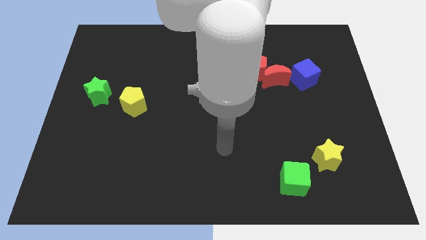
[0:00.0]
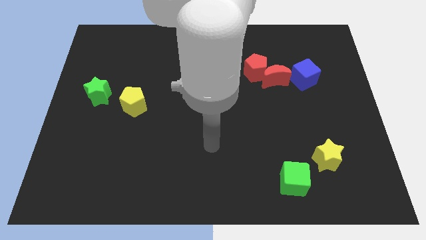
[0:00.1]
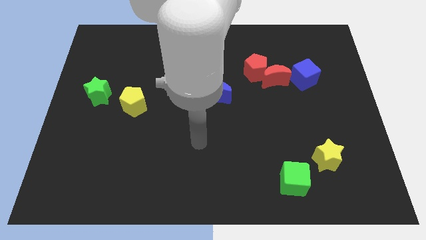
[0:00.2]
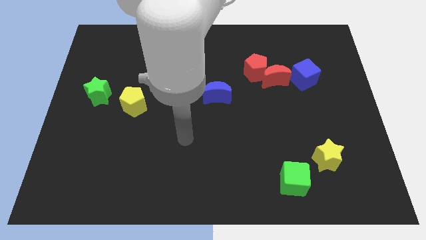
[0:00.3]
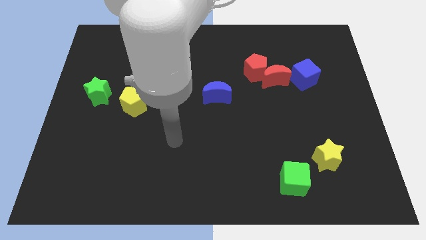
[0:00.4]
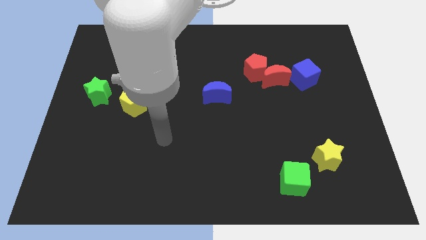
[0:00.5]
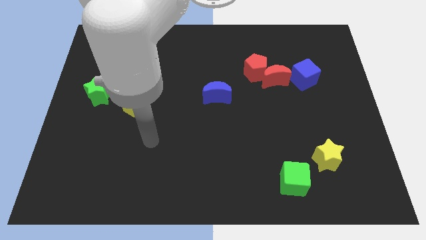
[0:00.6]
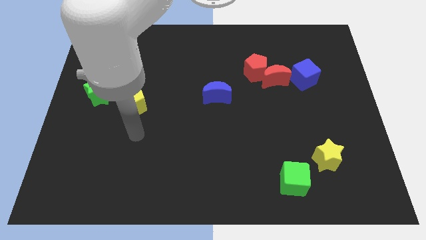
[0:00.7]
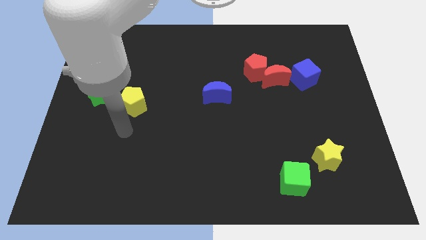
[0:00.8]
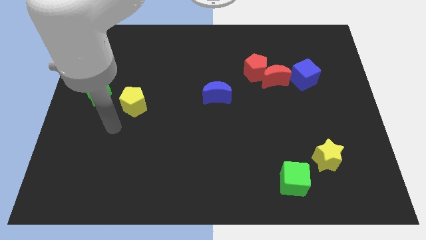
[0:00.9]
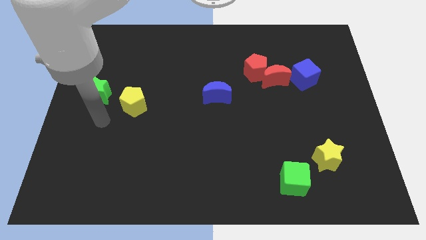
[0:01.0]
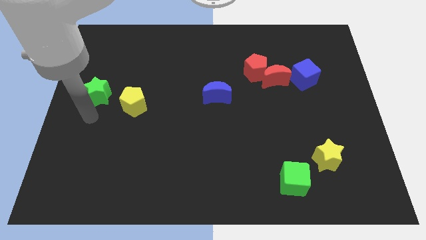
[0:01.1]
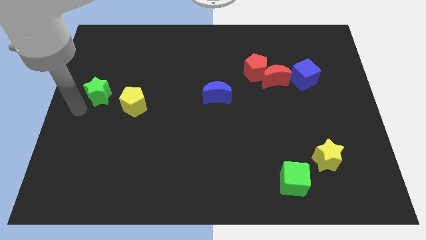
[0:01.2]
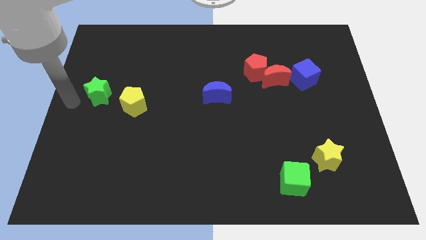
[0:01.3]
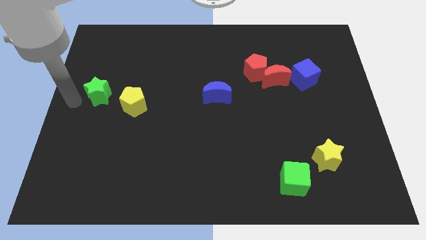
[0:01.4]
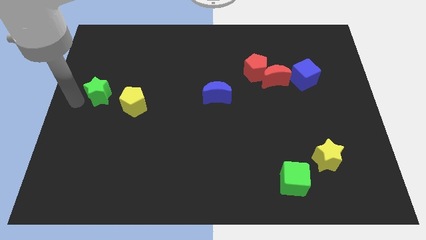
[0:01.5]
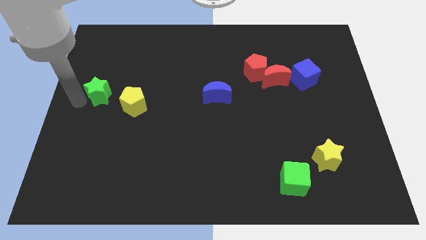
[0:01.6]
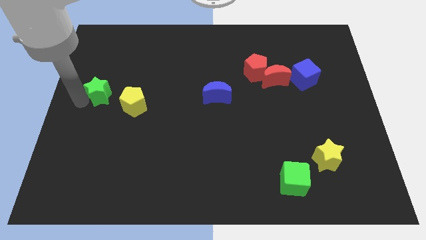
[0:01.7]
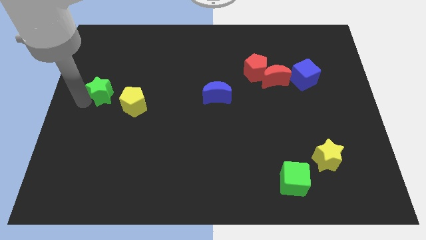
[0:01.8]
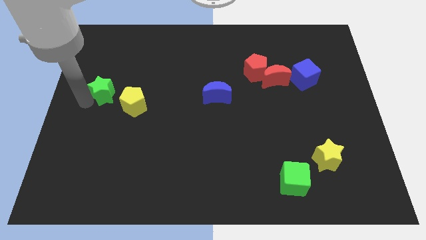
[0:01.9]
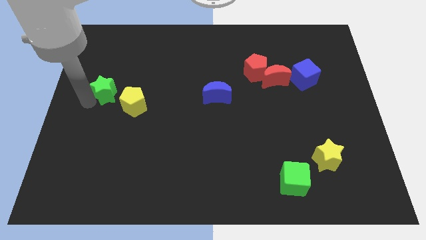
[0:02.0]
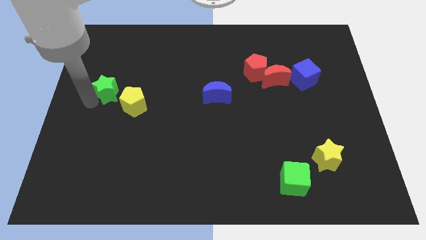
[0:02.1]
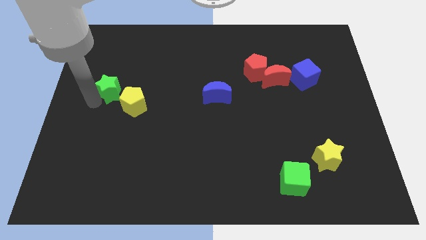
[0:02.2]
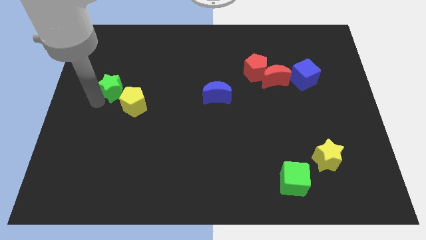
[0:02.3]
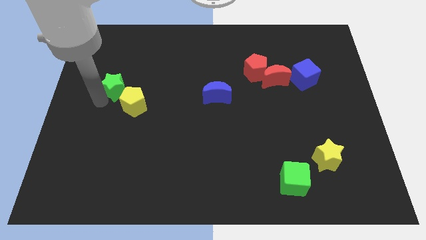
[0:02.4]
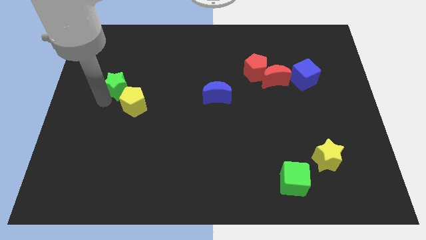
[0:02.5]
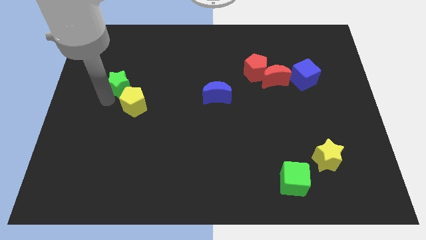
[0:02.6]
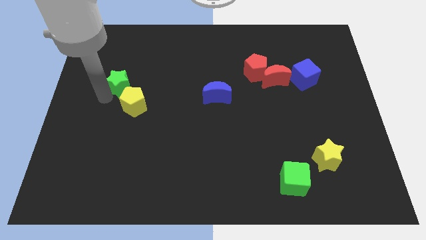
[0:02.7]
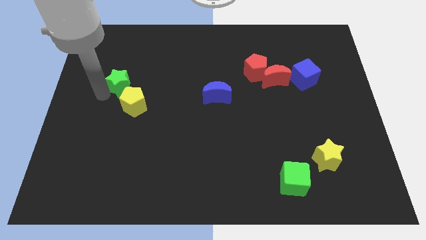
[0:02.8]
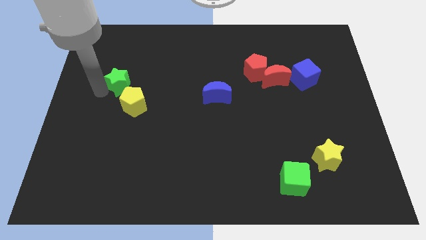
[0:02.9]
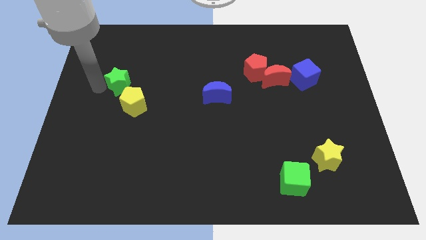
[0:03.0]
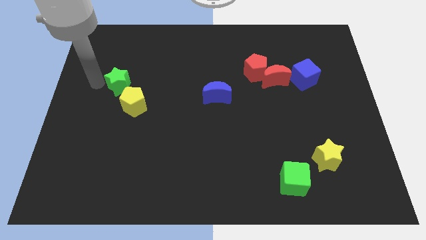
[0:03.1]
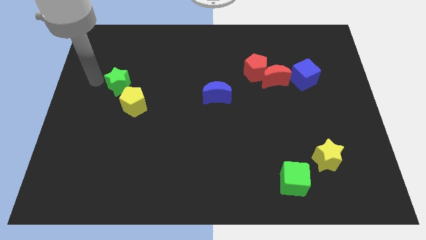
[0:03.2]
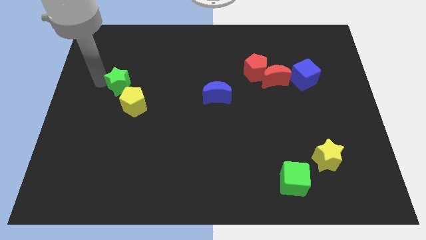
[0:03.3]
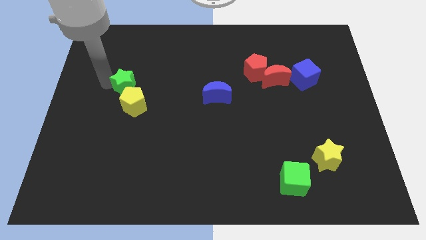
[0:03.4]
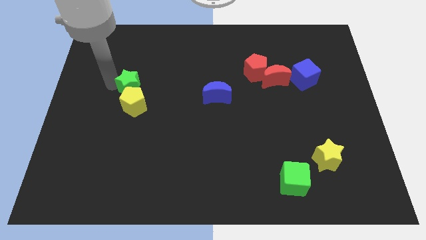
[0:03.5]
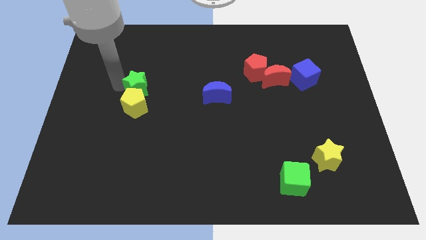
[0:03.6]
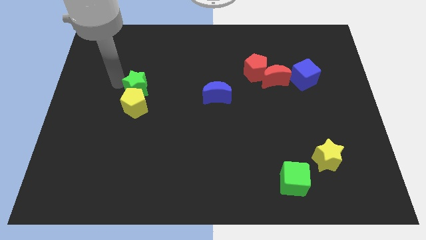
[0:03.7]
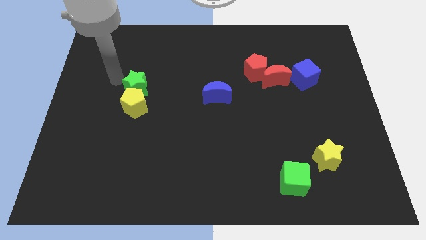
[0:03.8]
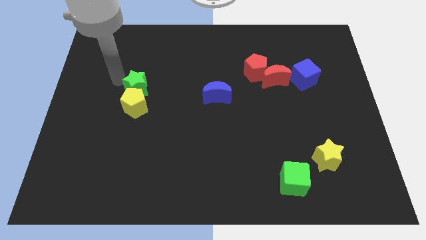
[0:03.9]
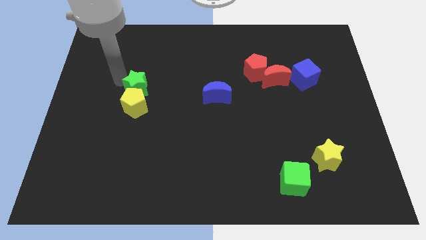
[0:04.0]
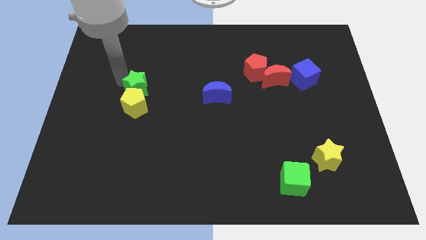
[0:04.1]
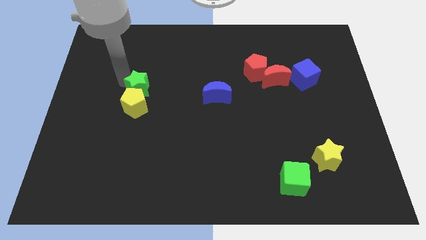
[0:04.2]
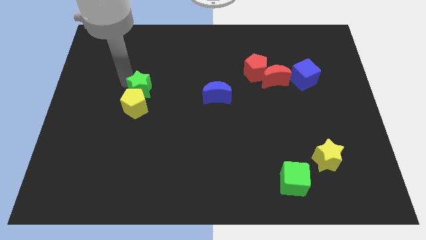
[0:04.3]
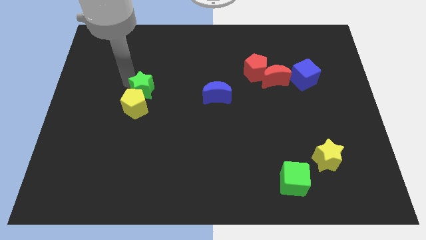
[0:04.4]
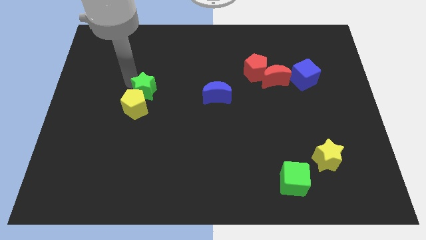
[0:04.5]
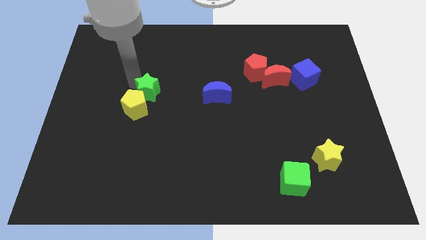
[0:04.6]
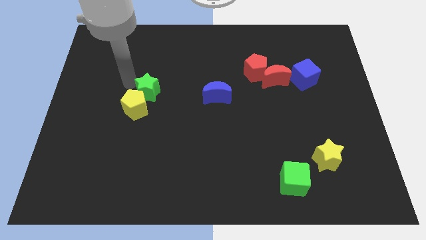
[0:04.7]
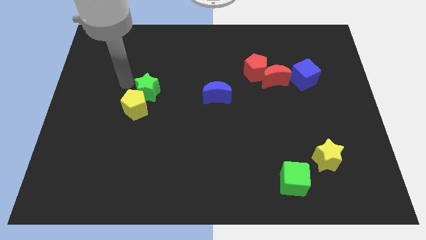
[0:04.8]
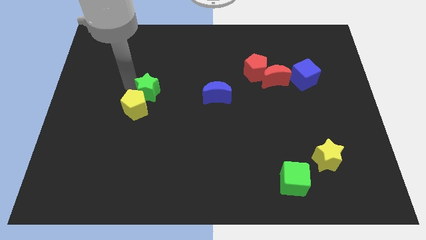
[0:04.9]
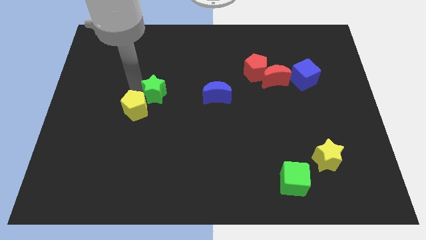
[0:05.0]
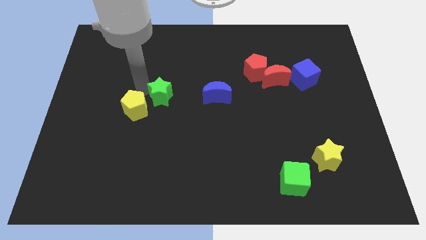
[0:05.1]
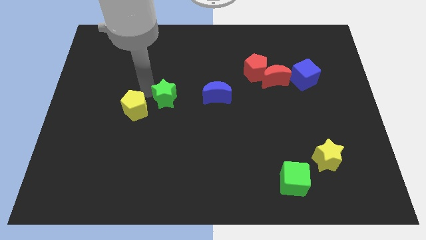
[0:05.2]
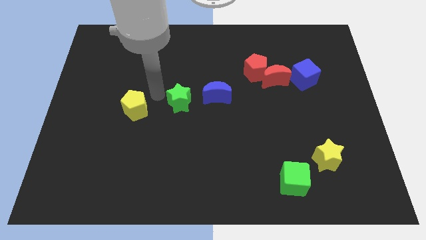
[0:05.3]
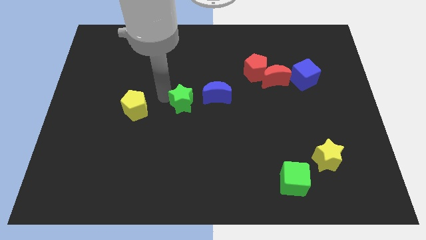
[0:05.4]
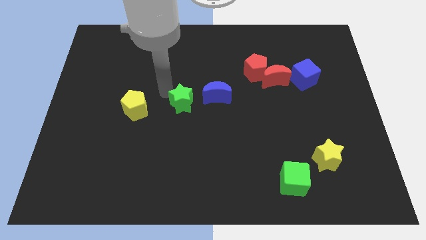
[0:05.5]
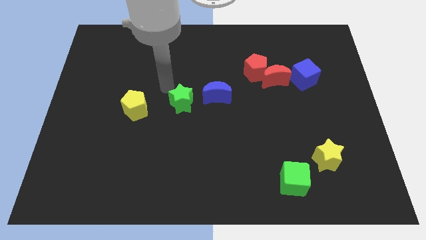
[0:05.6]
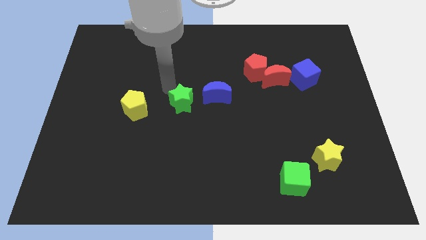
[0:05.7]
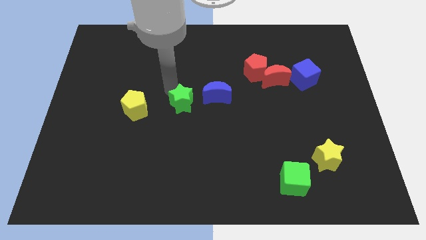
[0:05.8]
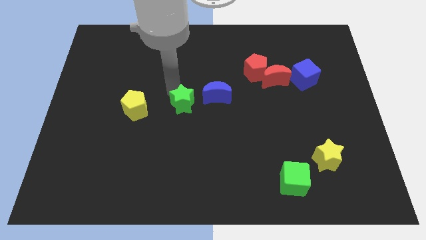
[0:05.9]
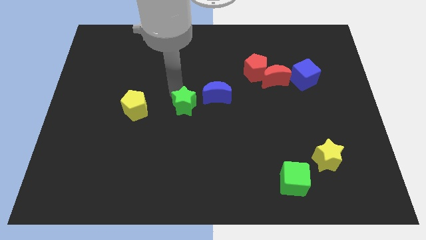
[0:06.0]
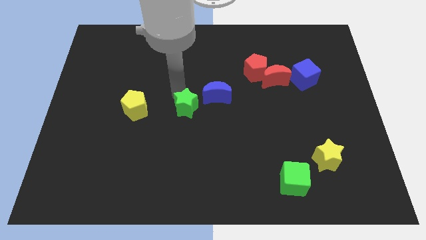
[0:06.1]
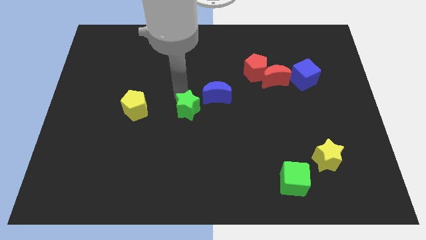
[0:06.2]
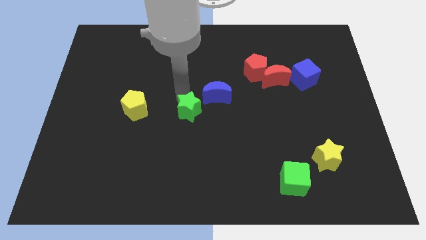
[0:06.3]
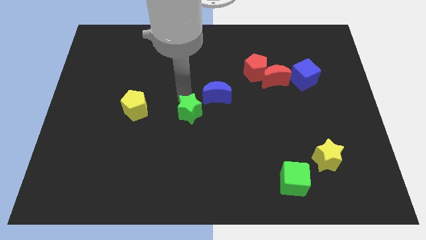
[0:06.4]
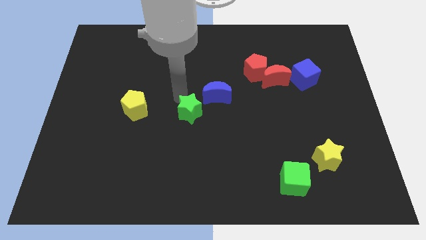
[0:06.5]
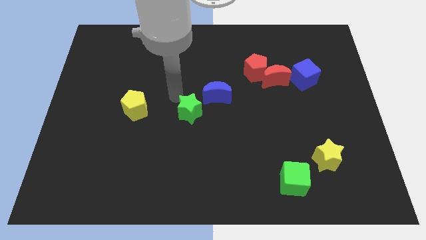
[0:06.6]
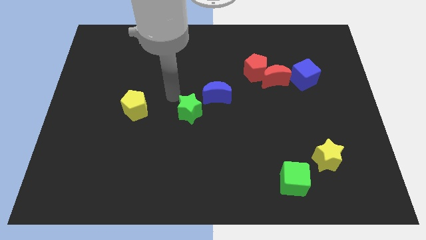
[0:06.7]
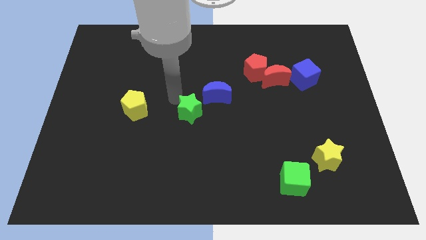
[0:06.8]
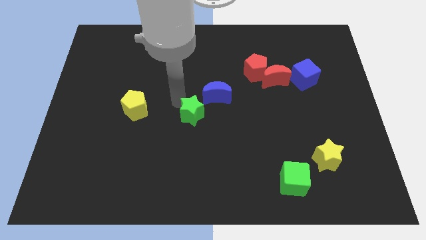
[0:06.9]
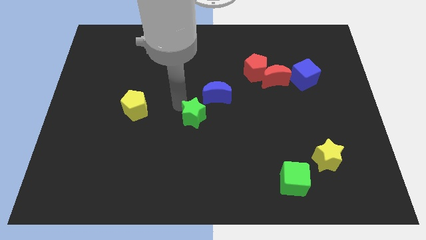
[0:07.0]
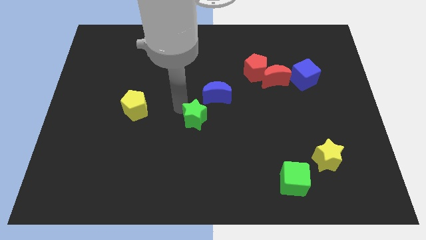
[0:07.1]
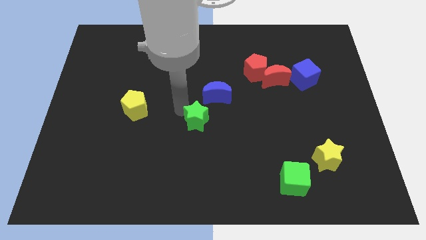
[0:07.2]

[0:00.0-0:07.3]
push the green star to the bottom side of the blue moon
